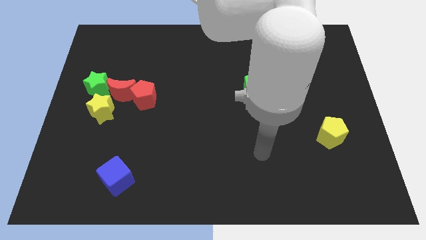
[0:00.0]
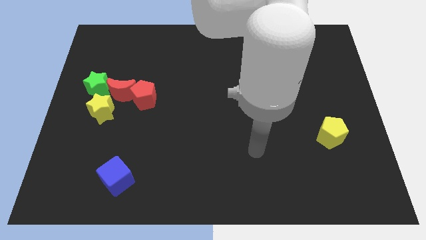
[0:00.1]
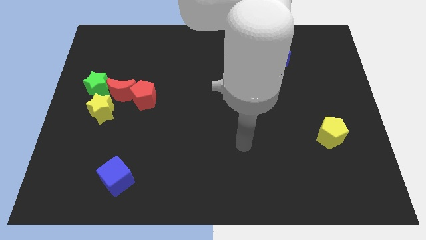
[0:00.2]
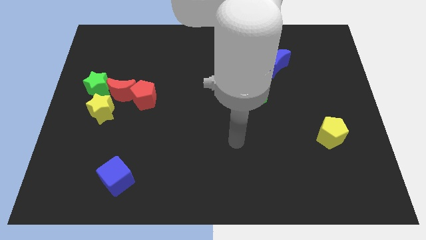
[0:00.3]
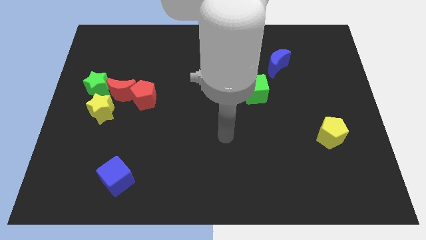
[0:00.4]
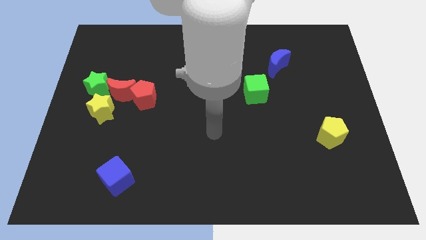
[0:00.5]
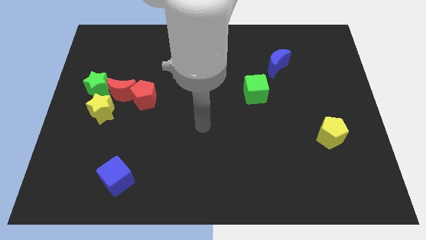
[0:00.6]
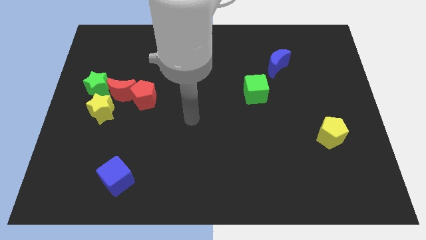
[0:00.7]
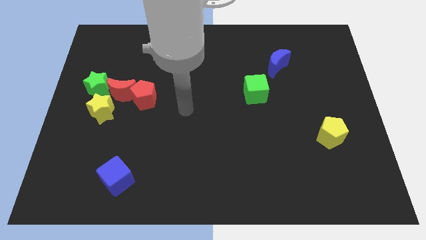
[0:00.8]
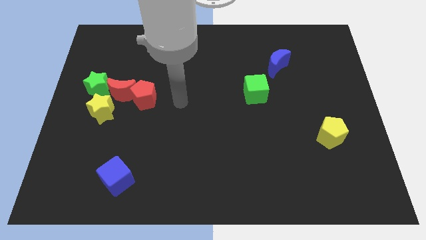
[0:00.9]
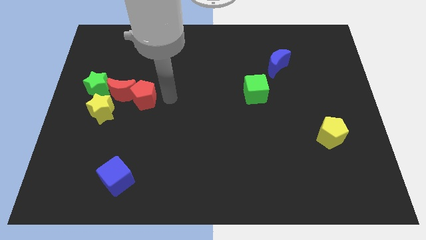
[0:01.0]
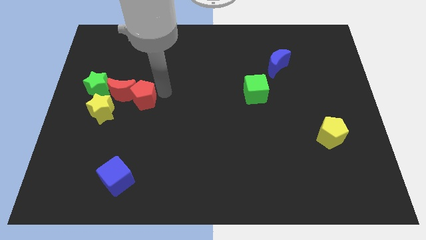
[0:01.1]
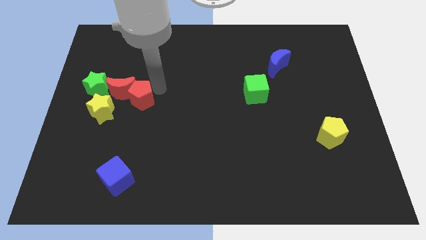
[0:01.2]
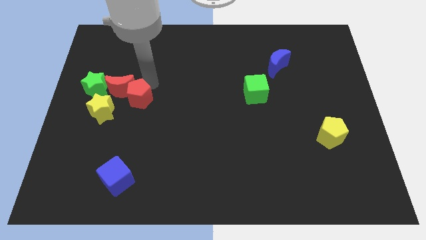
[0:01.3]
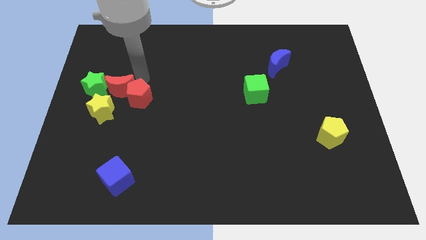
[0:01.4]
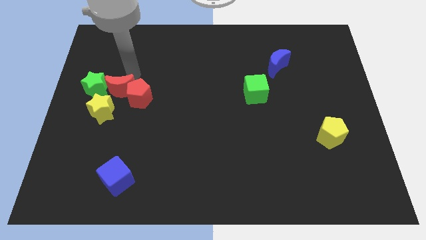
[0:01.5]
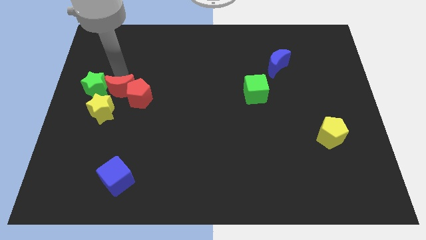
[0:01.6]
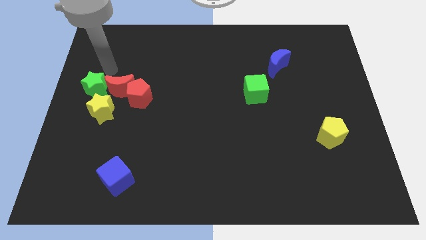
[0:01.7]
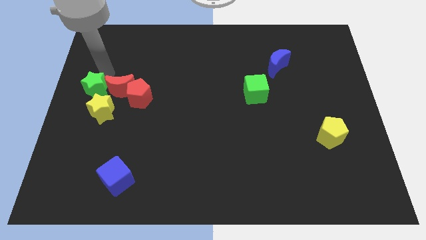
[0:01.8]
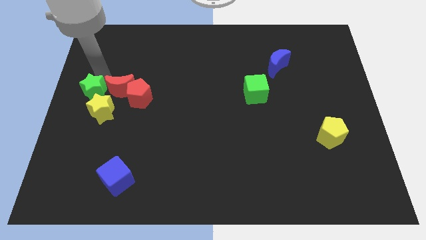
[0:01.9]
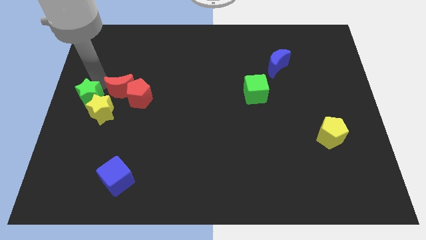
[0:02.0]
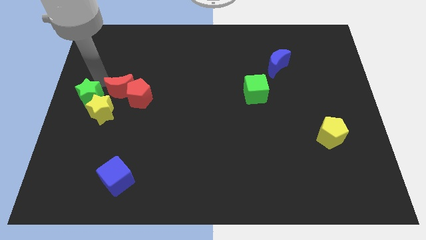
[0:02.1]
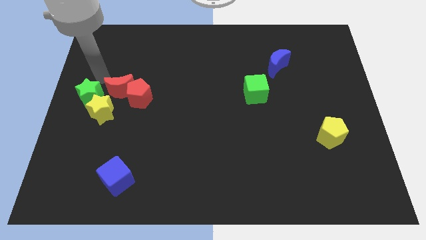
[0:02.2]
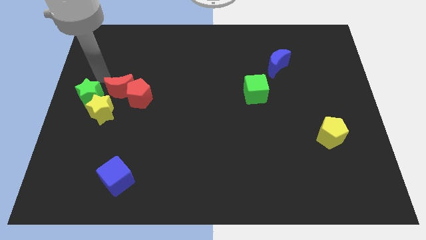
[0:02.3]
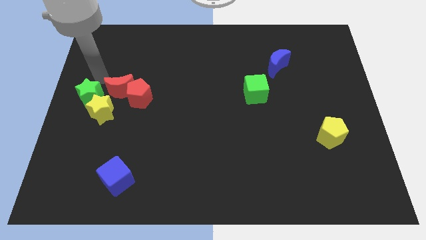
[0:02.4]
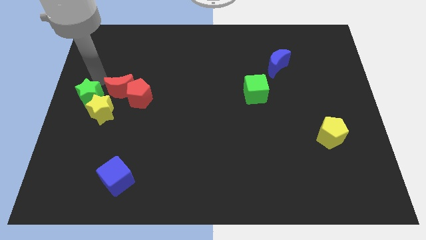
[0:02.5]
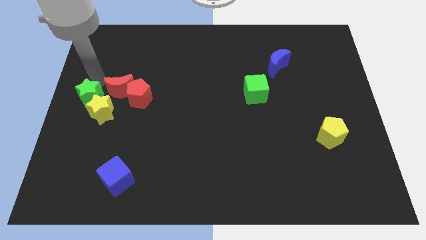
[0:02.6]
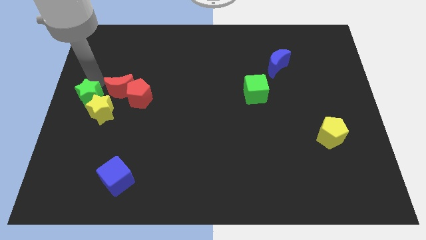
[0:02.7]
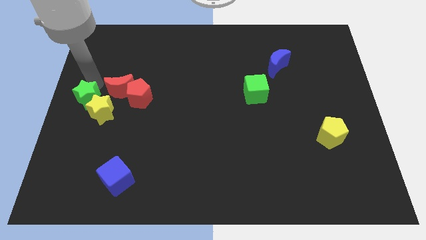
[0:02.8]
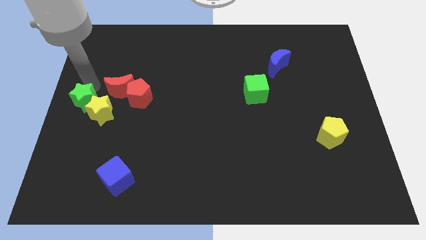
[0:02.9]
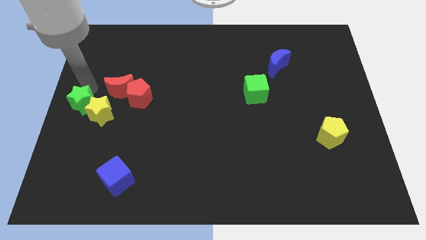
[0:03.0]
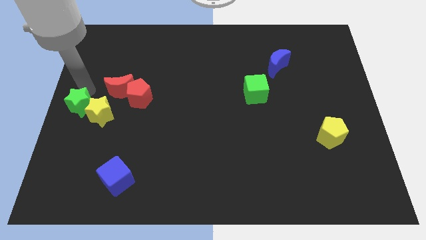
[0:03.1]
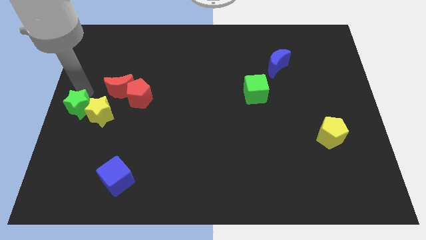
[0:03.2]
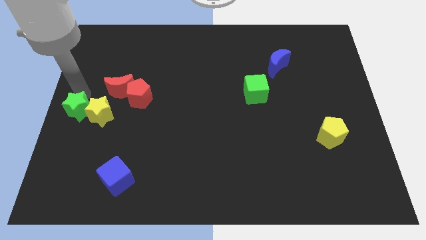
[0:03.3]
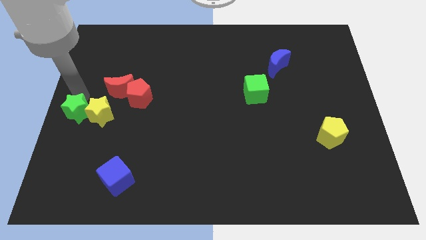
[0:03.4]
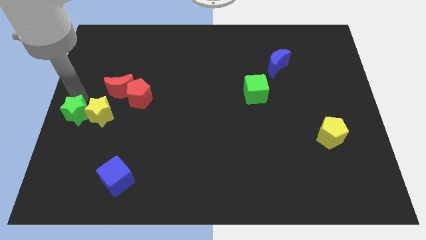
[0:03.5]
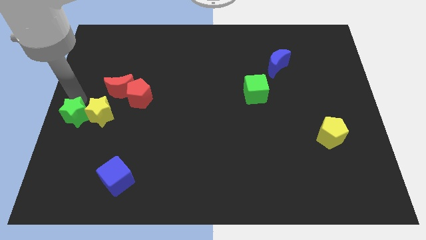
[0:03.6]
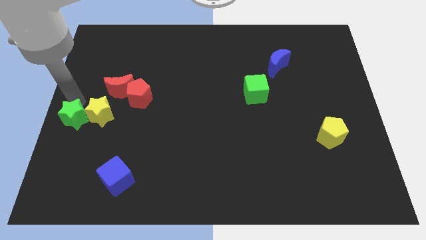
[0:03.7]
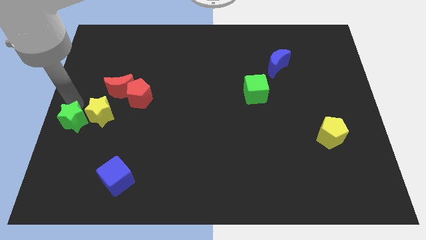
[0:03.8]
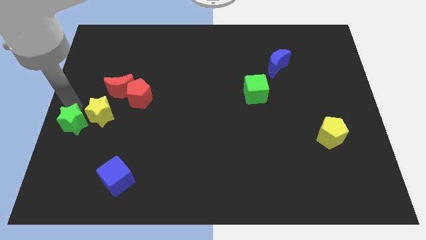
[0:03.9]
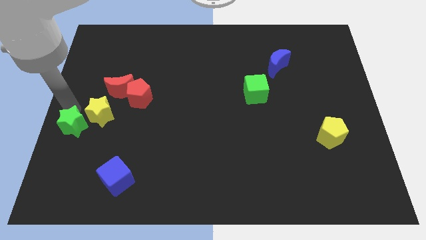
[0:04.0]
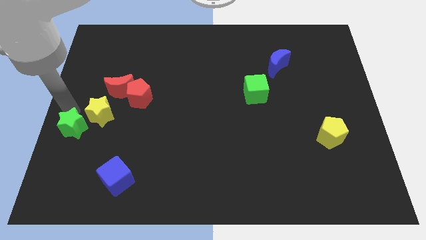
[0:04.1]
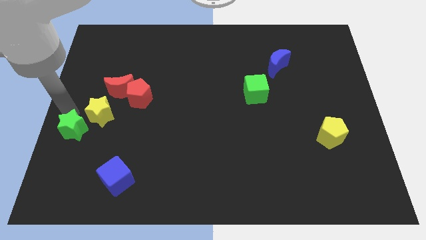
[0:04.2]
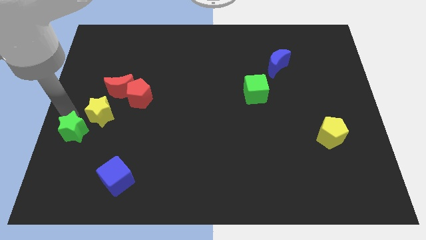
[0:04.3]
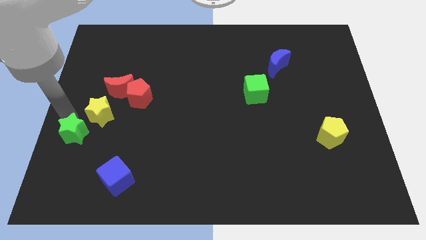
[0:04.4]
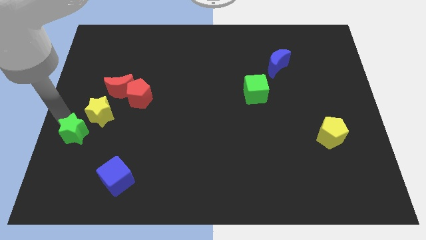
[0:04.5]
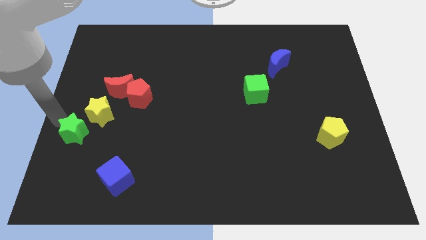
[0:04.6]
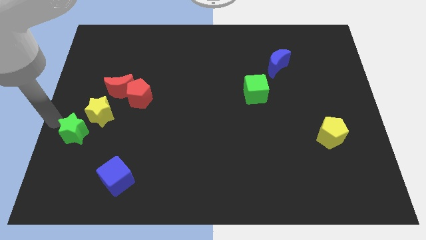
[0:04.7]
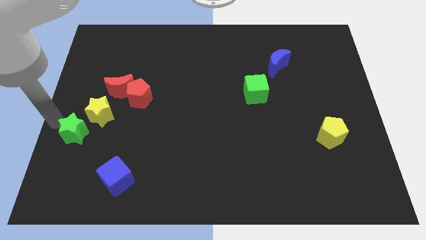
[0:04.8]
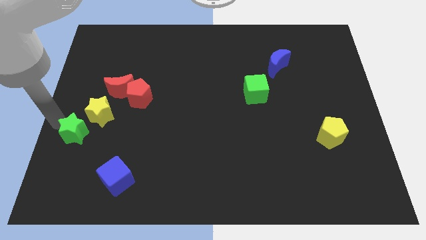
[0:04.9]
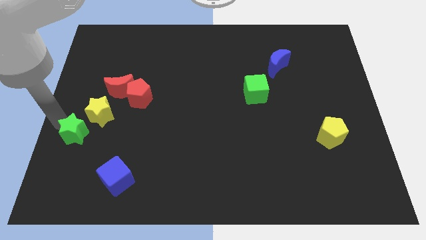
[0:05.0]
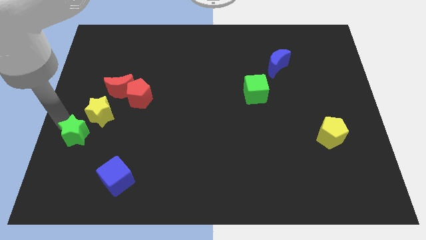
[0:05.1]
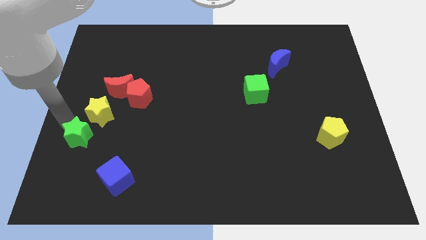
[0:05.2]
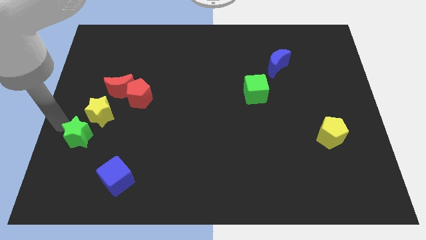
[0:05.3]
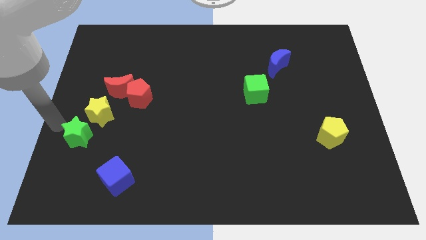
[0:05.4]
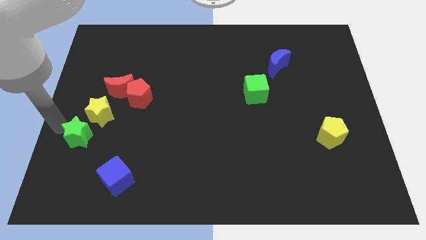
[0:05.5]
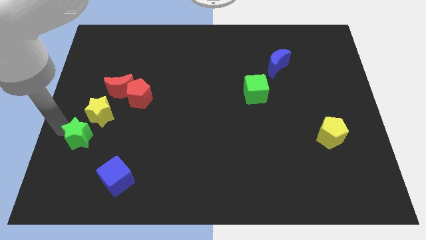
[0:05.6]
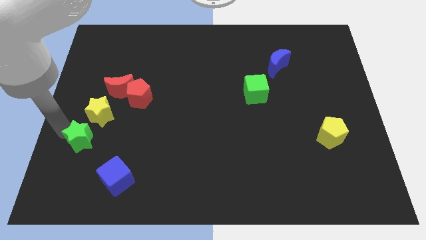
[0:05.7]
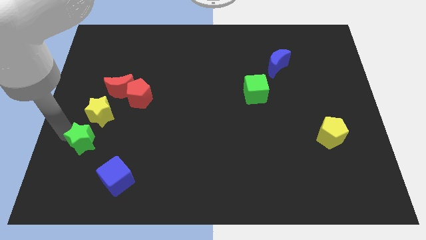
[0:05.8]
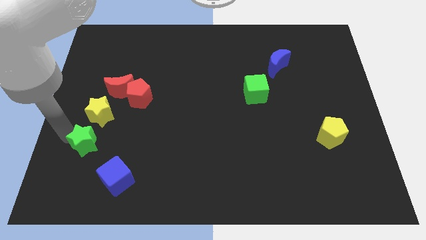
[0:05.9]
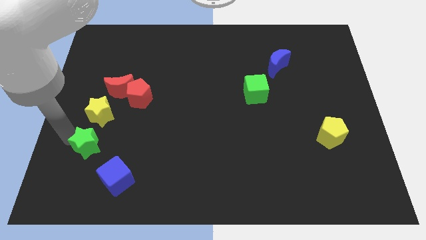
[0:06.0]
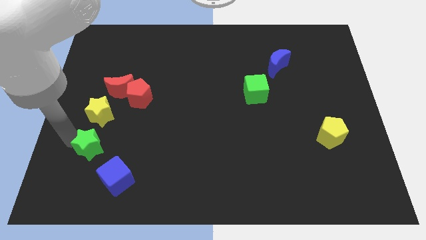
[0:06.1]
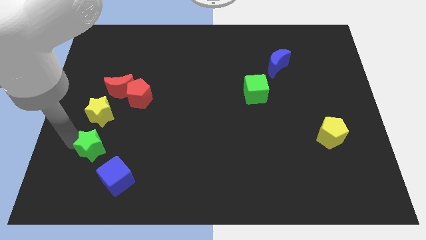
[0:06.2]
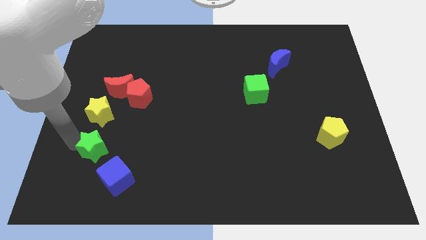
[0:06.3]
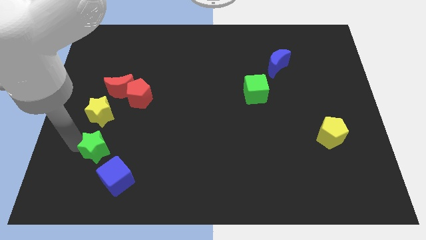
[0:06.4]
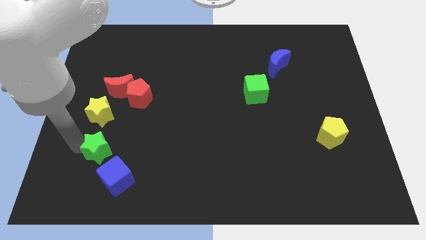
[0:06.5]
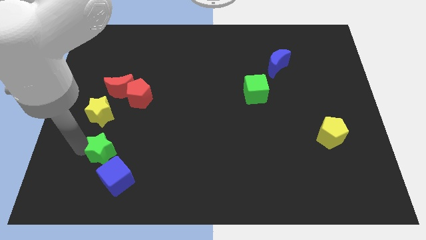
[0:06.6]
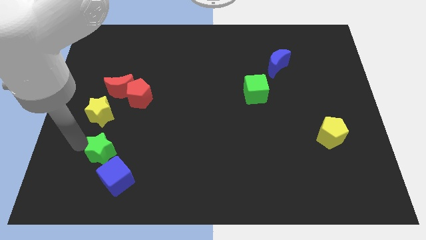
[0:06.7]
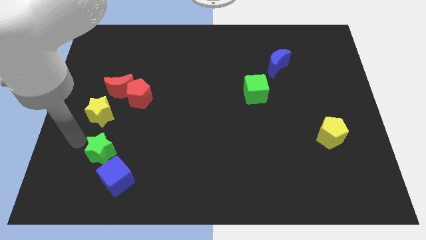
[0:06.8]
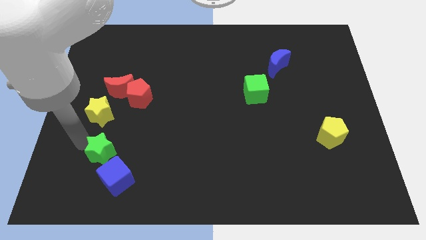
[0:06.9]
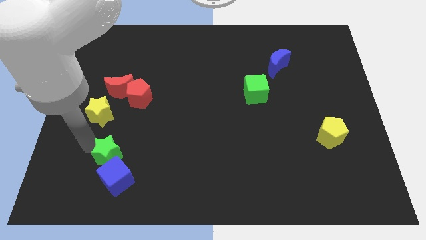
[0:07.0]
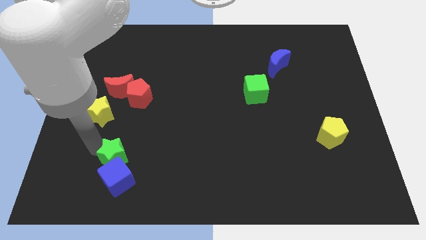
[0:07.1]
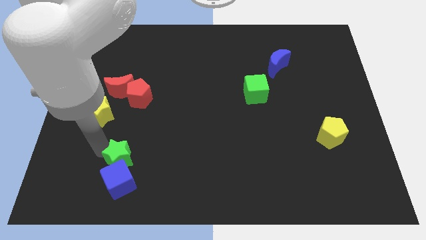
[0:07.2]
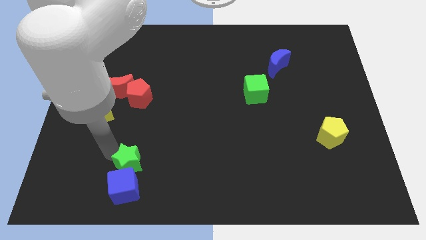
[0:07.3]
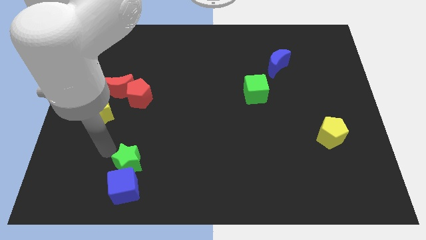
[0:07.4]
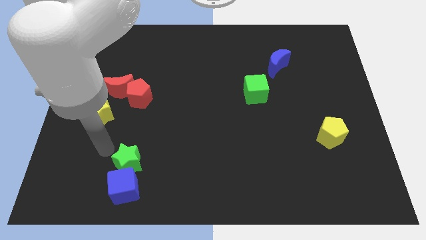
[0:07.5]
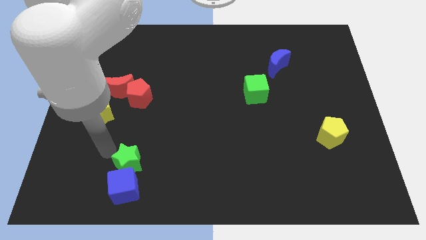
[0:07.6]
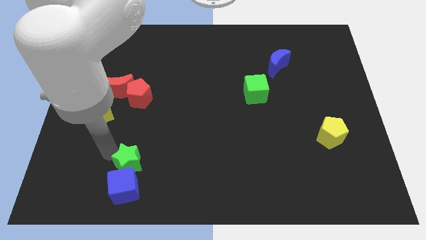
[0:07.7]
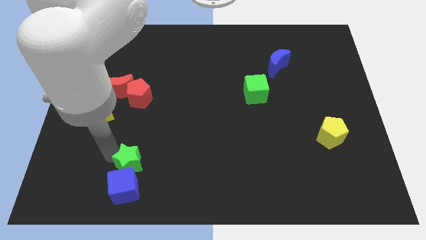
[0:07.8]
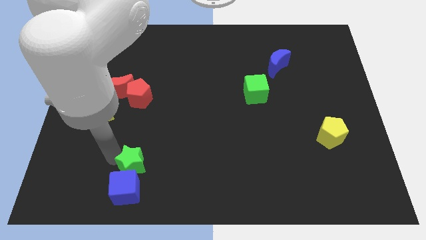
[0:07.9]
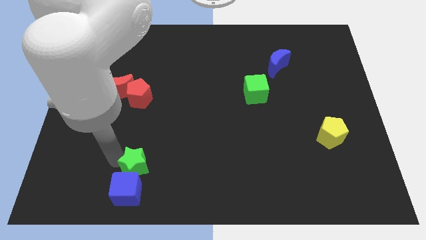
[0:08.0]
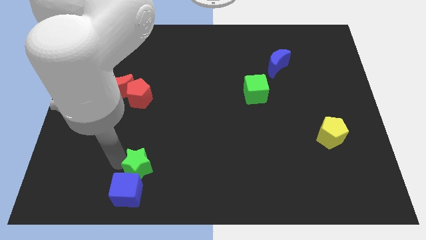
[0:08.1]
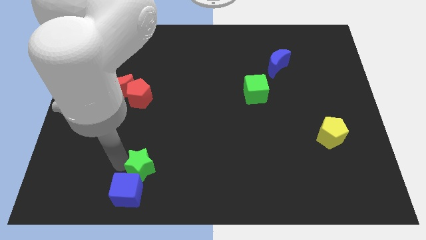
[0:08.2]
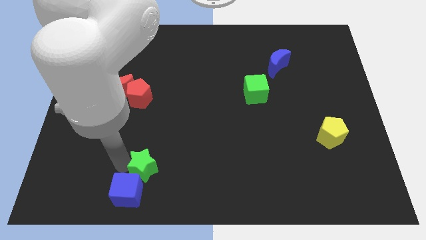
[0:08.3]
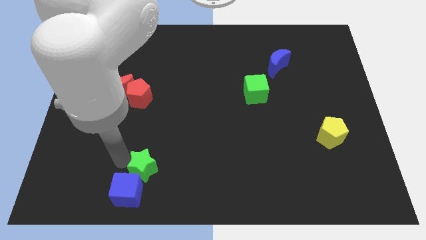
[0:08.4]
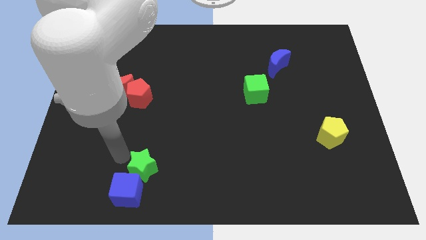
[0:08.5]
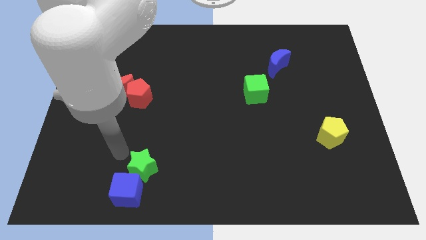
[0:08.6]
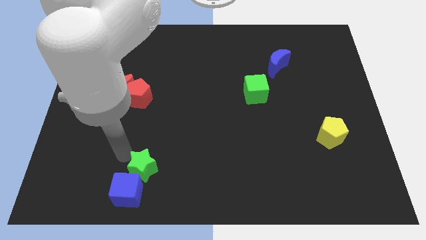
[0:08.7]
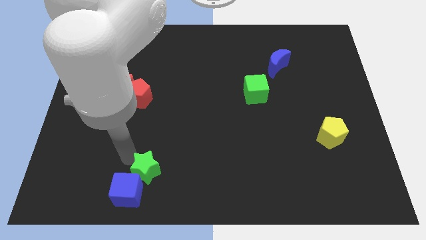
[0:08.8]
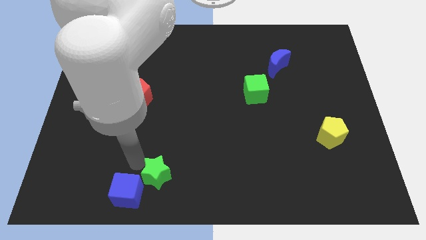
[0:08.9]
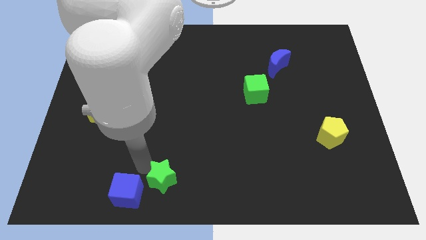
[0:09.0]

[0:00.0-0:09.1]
slide the green star to the bottom side
